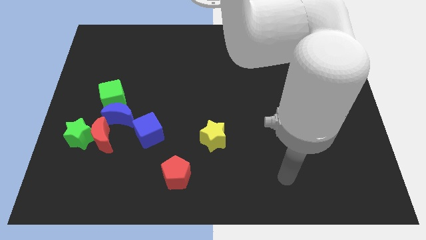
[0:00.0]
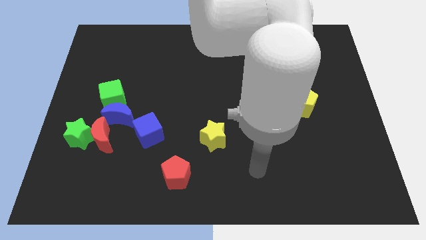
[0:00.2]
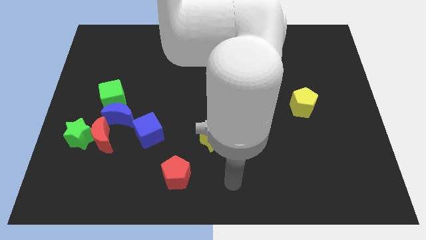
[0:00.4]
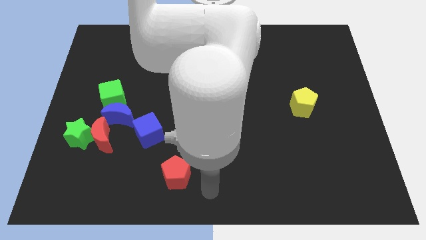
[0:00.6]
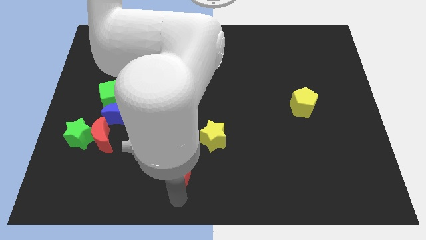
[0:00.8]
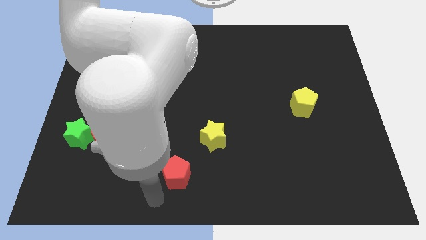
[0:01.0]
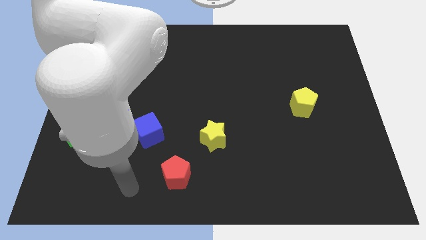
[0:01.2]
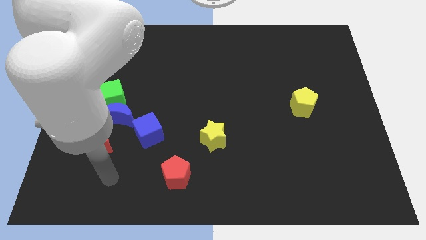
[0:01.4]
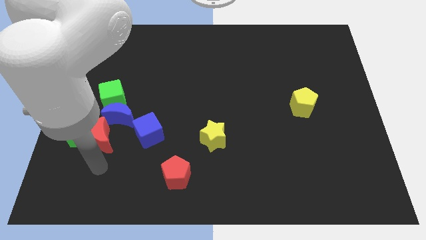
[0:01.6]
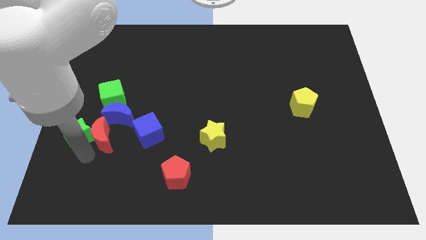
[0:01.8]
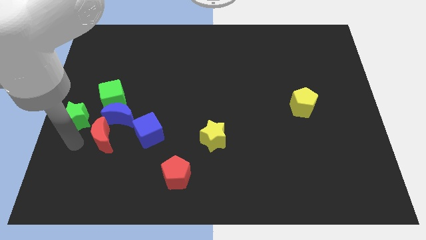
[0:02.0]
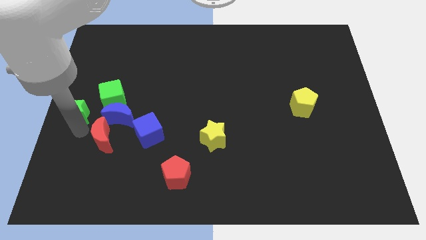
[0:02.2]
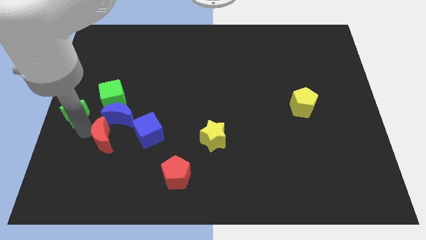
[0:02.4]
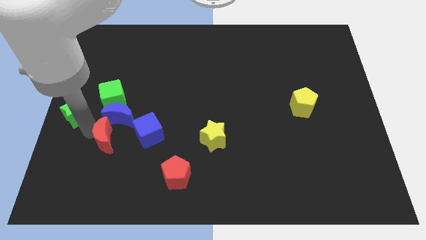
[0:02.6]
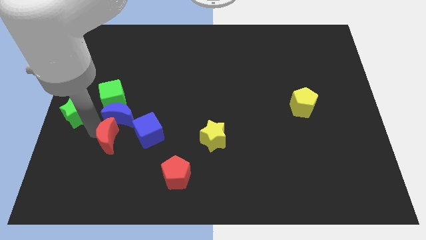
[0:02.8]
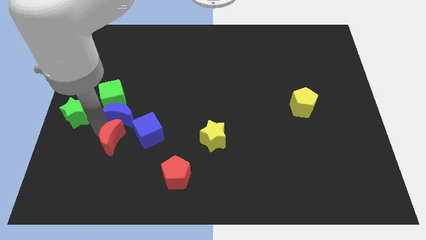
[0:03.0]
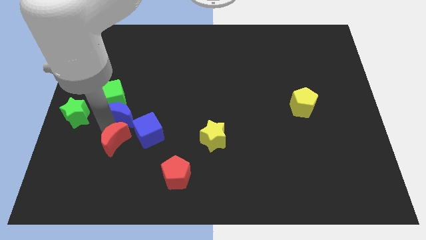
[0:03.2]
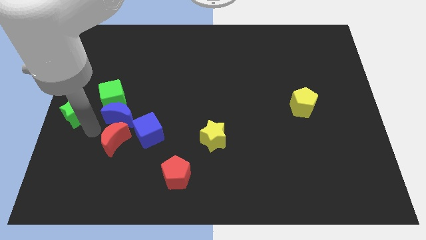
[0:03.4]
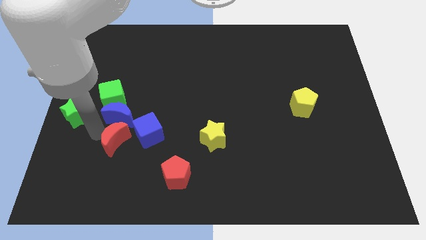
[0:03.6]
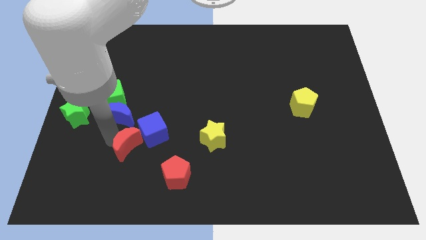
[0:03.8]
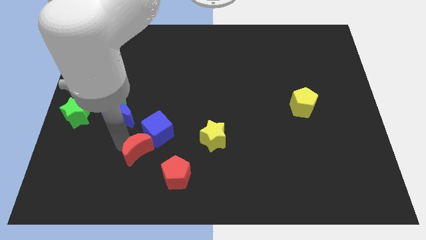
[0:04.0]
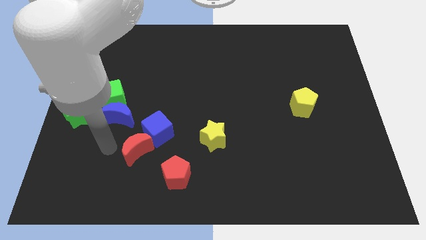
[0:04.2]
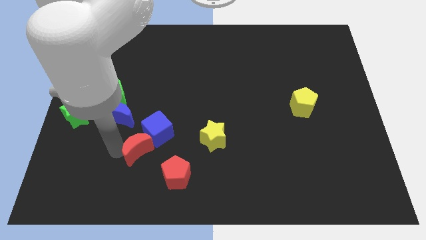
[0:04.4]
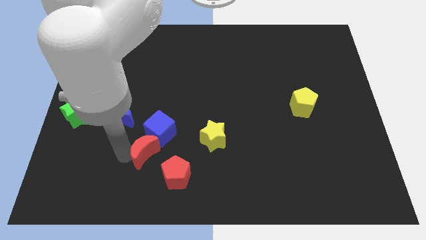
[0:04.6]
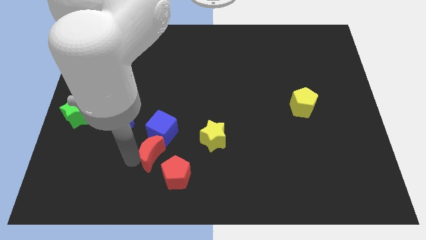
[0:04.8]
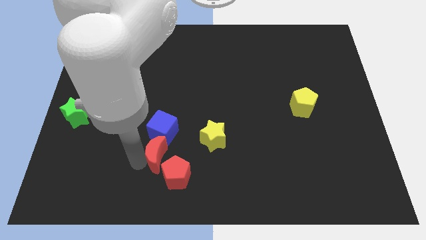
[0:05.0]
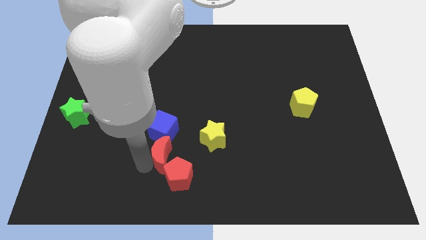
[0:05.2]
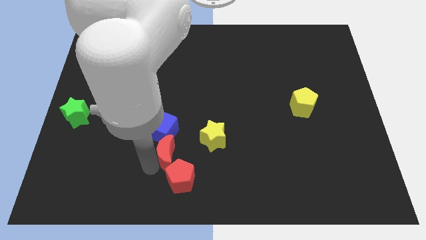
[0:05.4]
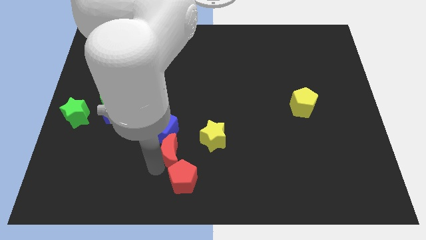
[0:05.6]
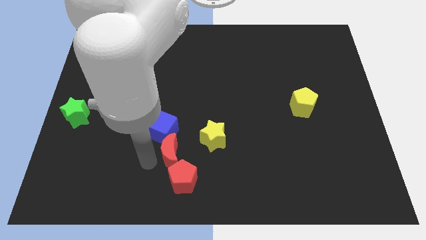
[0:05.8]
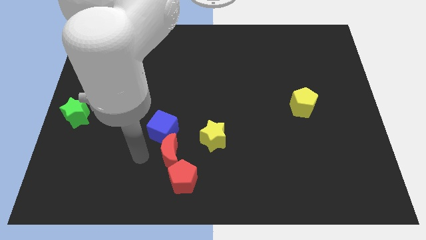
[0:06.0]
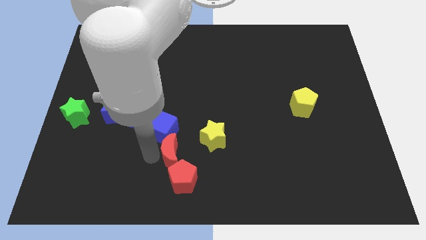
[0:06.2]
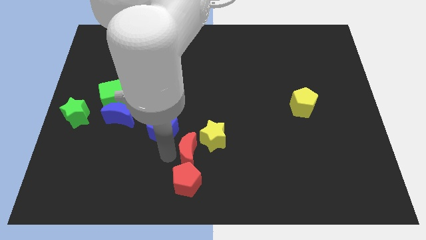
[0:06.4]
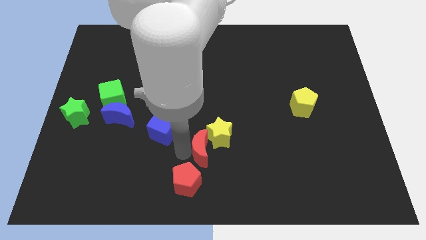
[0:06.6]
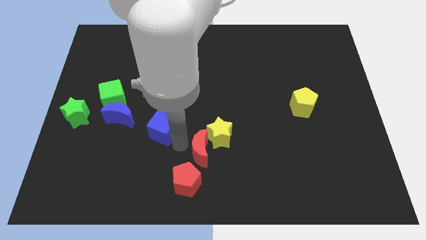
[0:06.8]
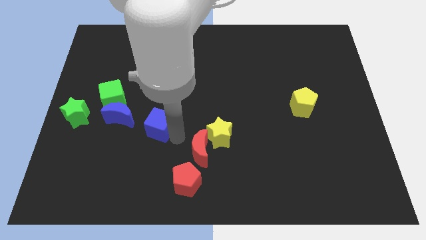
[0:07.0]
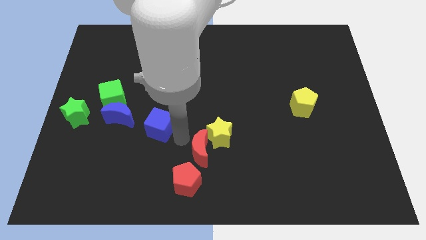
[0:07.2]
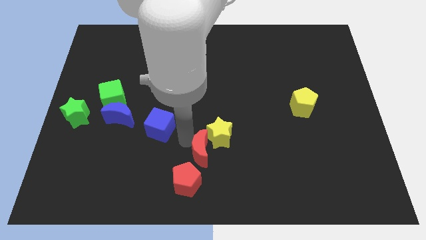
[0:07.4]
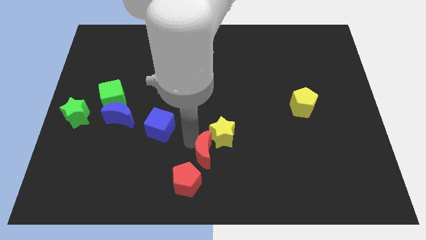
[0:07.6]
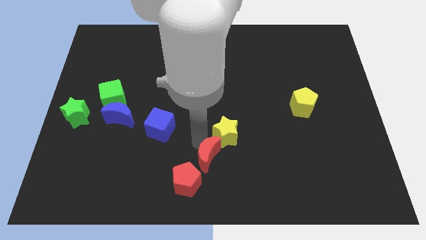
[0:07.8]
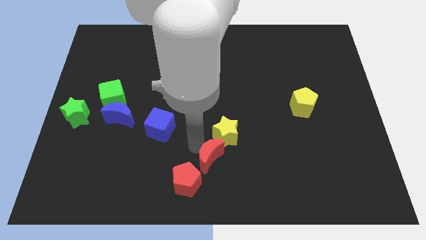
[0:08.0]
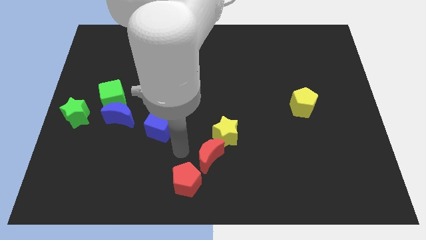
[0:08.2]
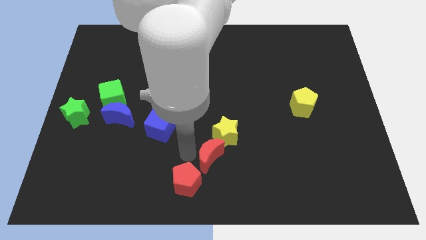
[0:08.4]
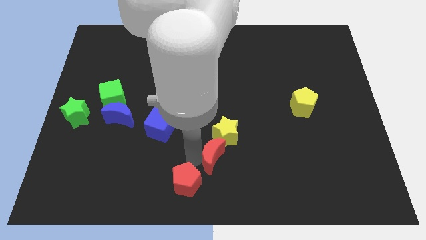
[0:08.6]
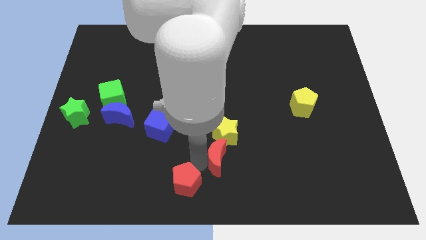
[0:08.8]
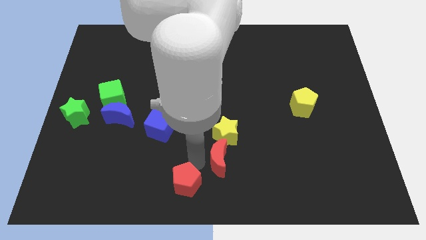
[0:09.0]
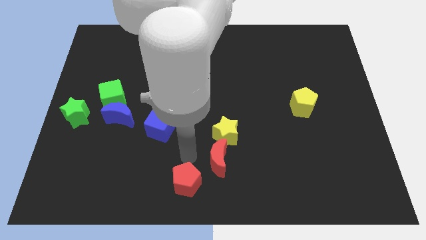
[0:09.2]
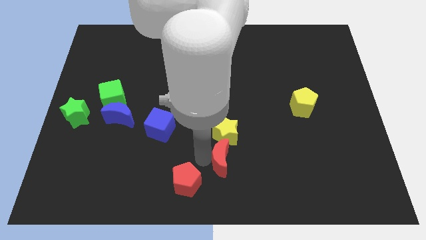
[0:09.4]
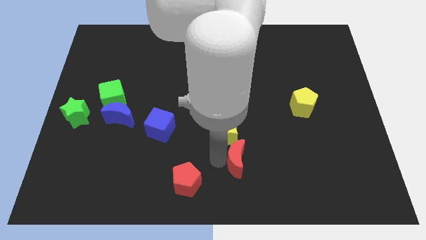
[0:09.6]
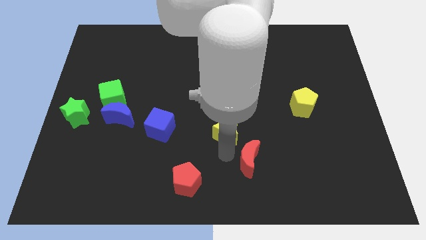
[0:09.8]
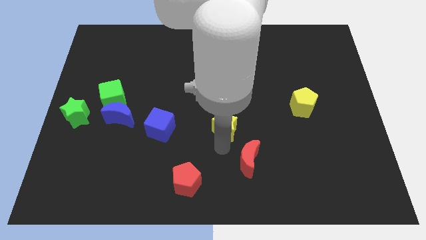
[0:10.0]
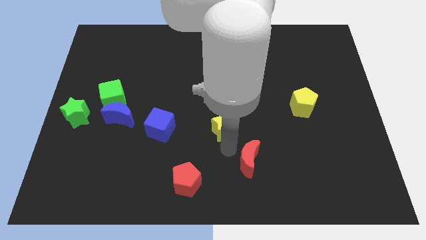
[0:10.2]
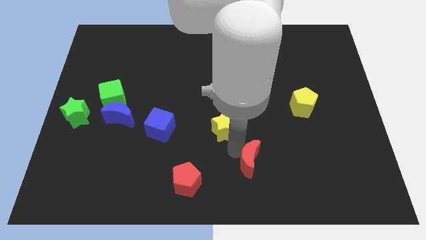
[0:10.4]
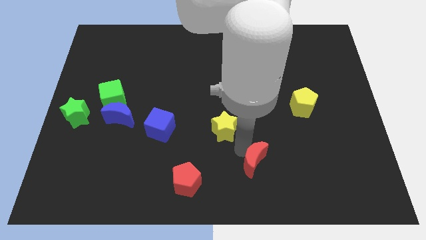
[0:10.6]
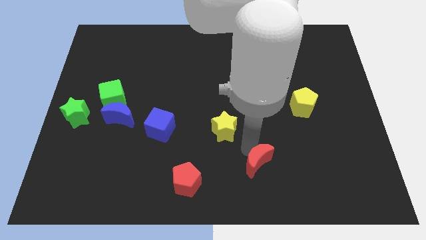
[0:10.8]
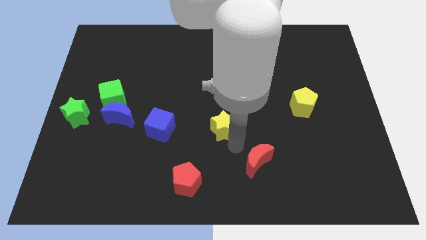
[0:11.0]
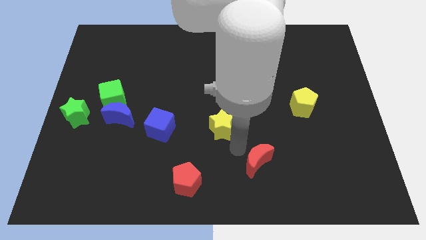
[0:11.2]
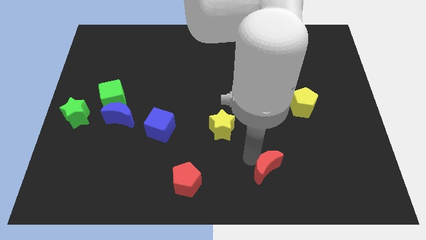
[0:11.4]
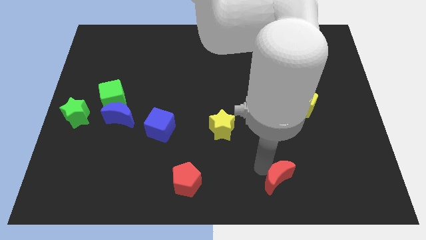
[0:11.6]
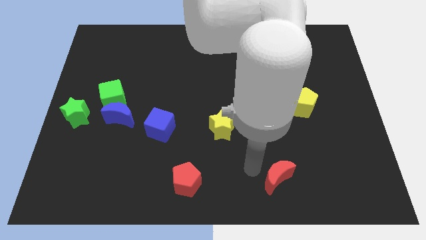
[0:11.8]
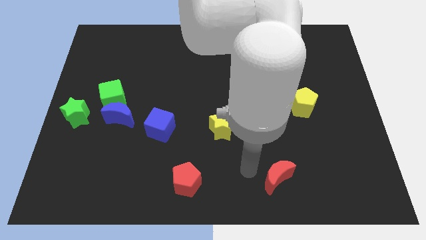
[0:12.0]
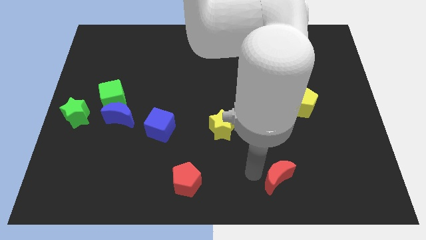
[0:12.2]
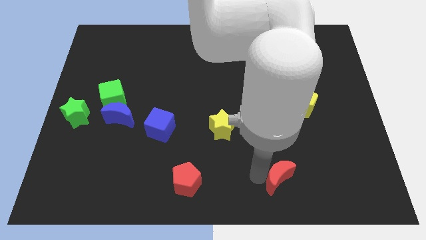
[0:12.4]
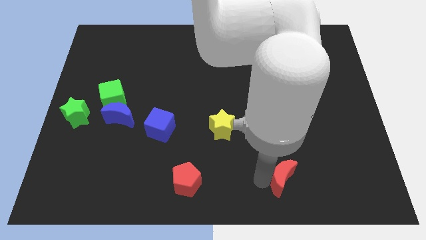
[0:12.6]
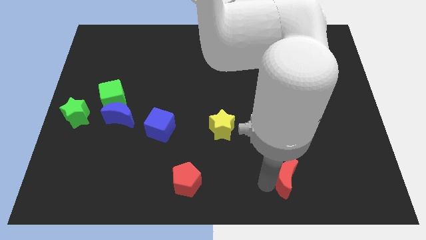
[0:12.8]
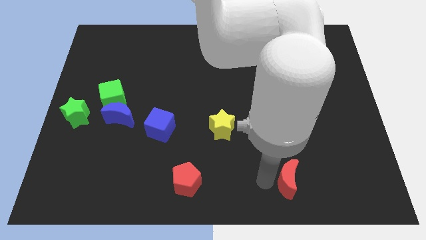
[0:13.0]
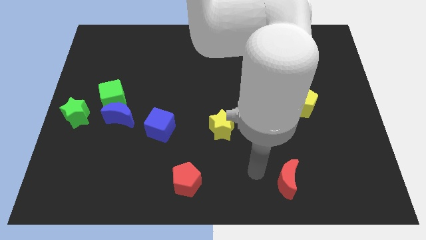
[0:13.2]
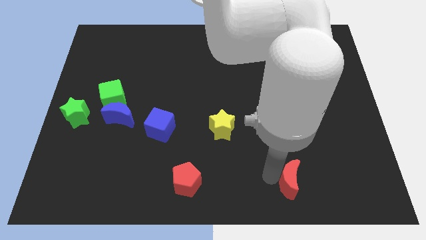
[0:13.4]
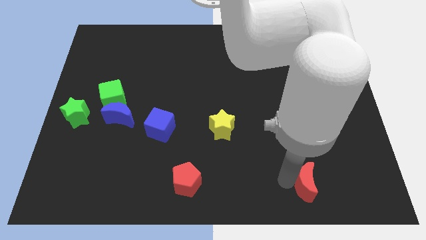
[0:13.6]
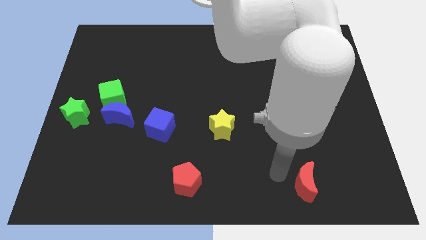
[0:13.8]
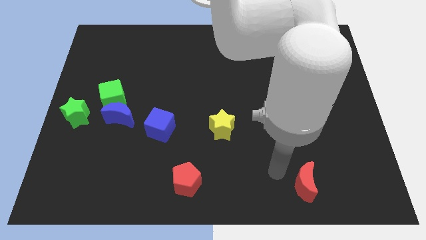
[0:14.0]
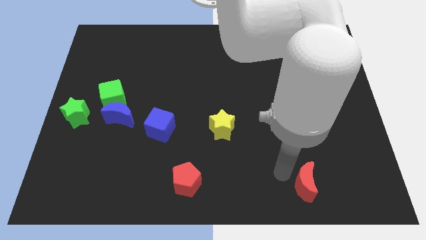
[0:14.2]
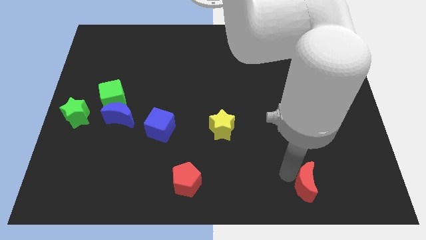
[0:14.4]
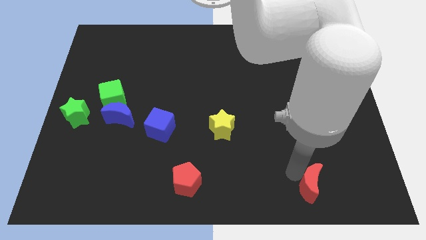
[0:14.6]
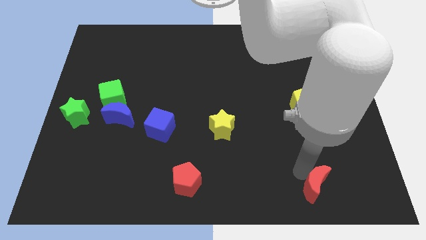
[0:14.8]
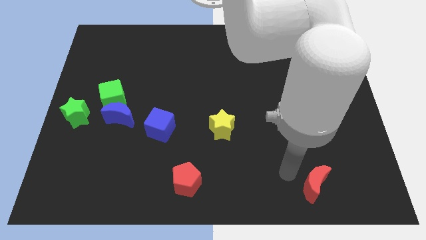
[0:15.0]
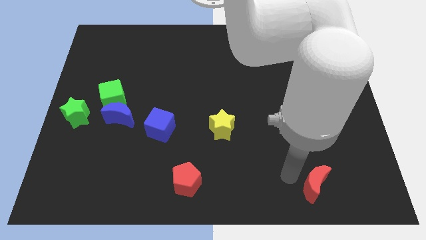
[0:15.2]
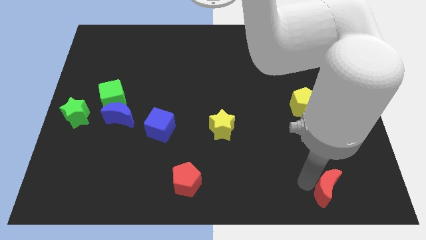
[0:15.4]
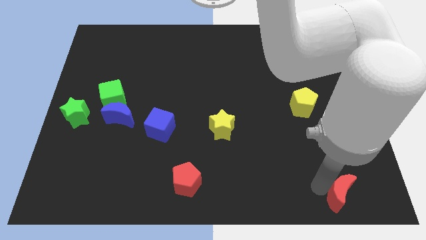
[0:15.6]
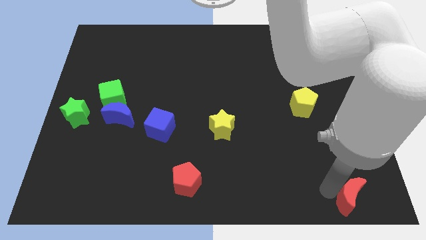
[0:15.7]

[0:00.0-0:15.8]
move the red moon to the bottom right corner
